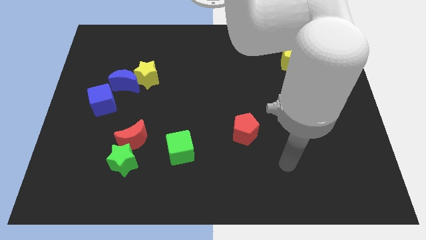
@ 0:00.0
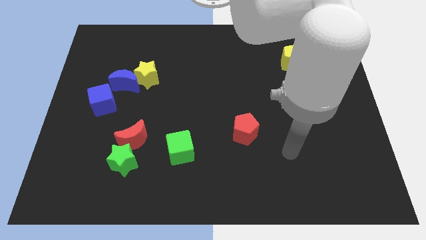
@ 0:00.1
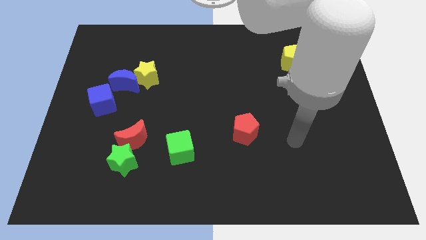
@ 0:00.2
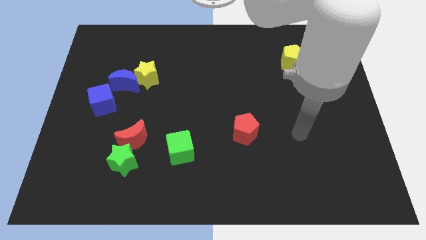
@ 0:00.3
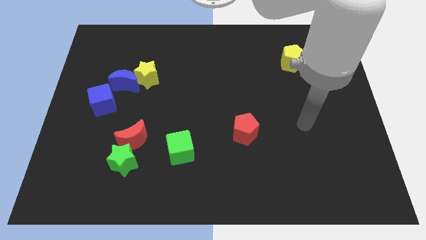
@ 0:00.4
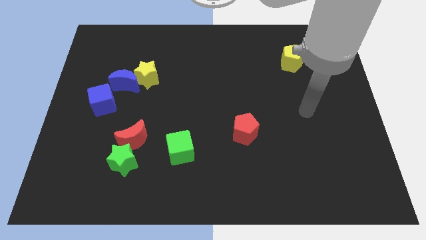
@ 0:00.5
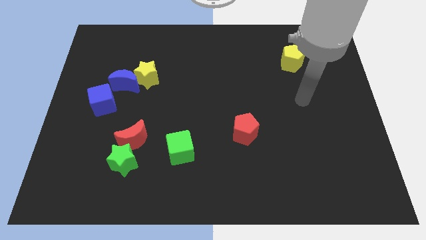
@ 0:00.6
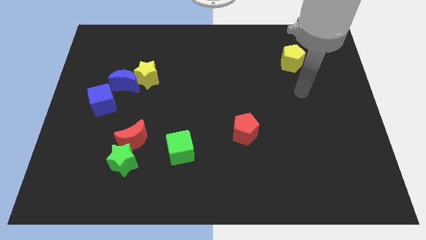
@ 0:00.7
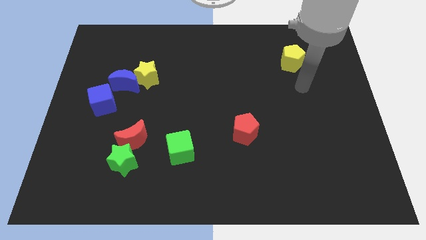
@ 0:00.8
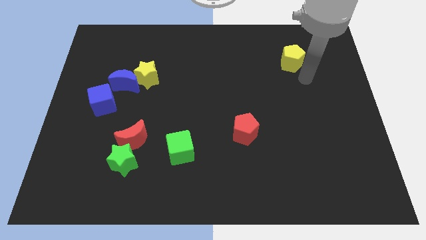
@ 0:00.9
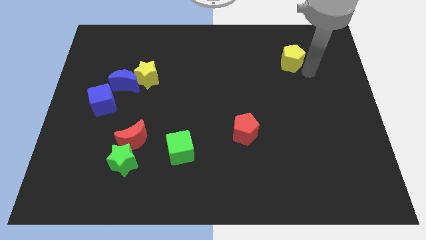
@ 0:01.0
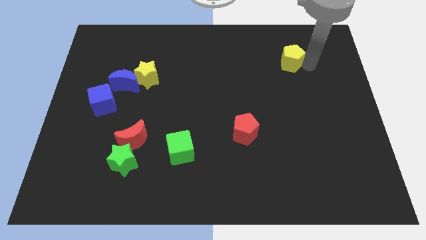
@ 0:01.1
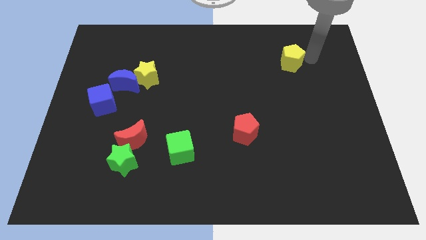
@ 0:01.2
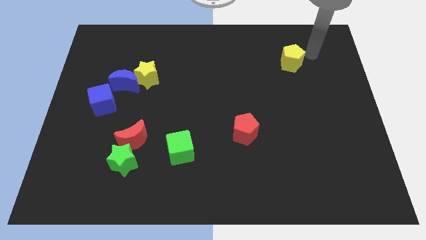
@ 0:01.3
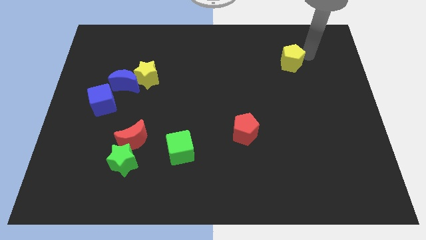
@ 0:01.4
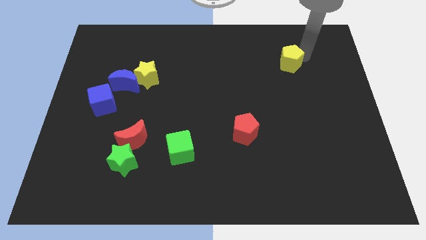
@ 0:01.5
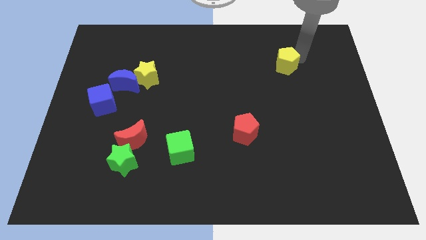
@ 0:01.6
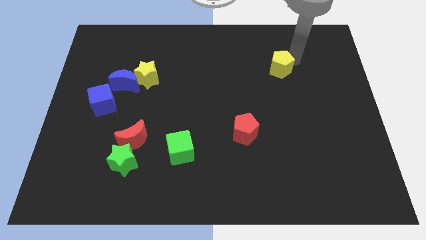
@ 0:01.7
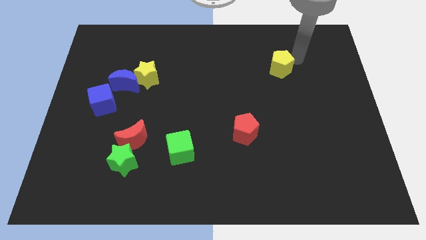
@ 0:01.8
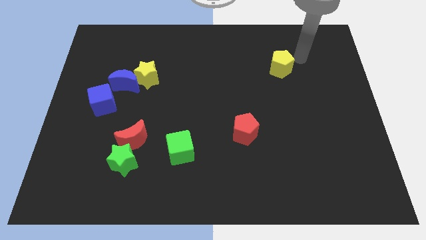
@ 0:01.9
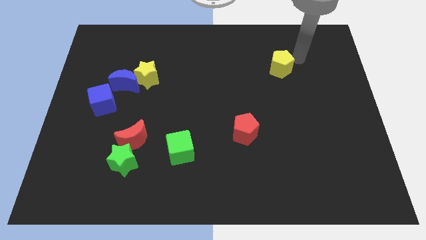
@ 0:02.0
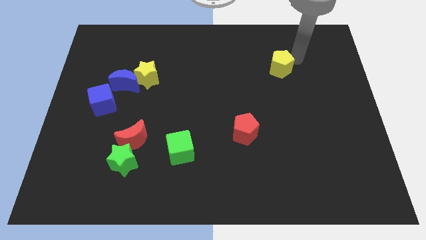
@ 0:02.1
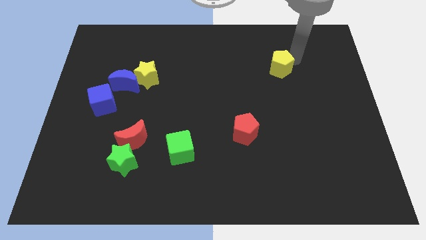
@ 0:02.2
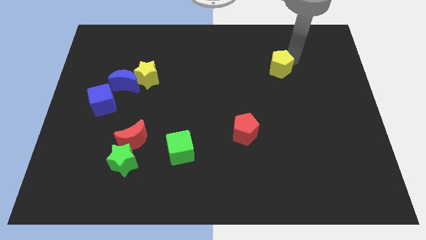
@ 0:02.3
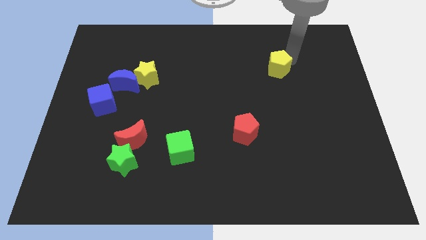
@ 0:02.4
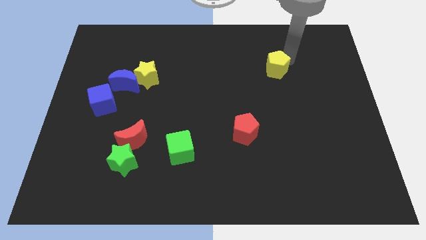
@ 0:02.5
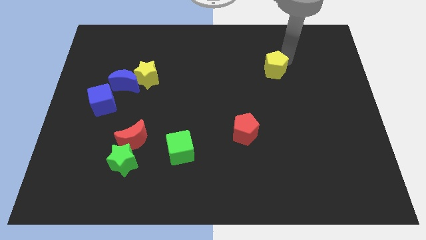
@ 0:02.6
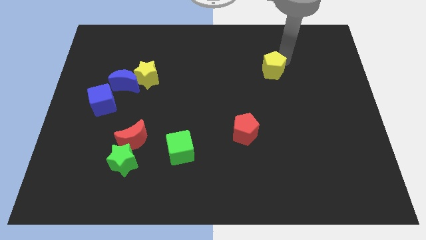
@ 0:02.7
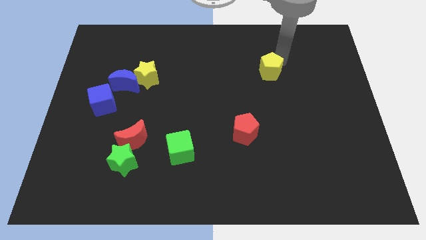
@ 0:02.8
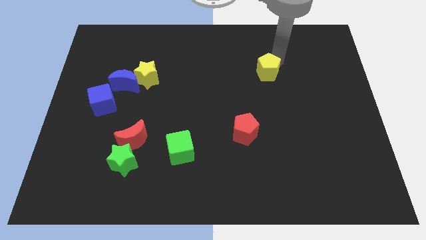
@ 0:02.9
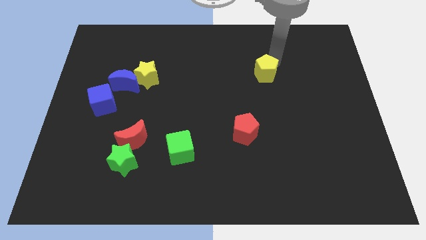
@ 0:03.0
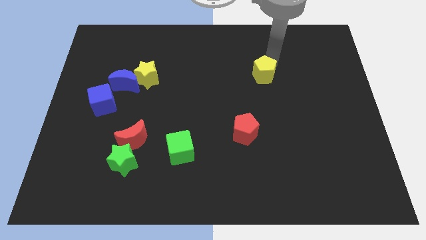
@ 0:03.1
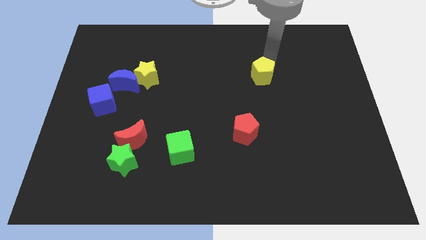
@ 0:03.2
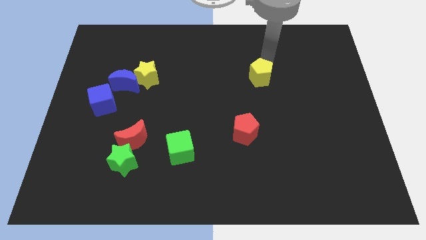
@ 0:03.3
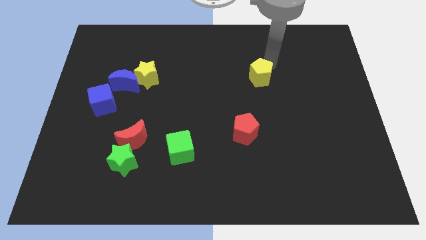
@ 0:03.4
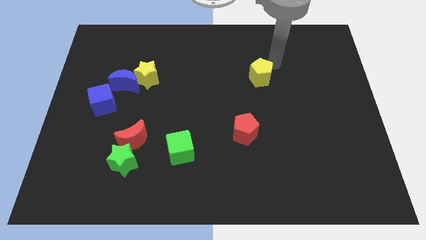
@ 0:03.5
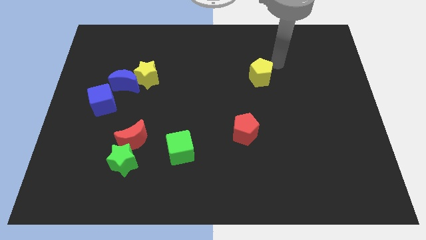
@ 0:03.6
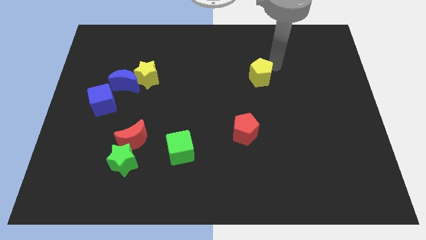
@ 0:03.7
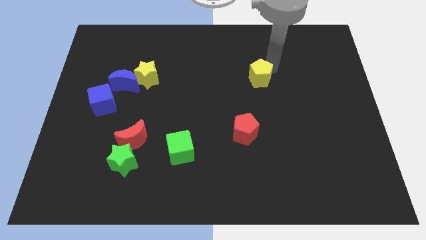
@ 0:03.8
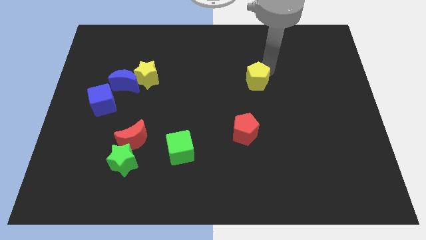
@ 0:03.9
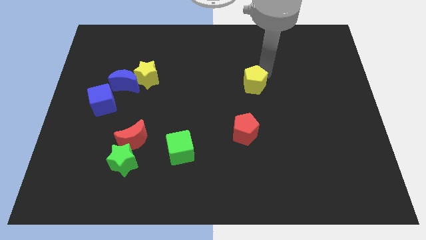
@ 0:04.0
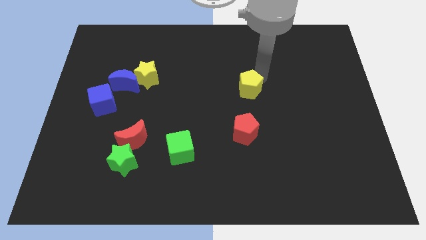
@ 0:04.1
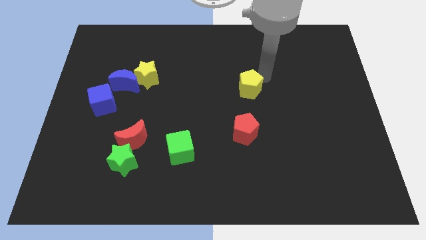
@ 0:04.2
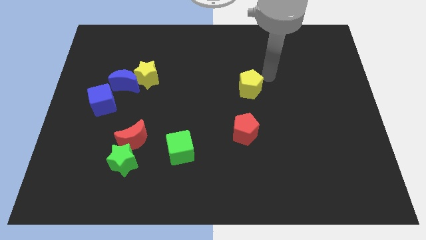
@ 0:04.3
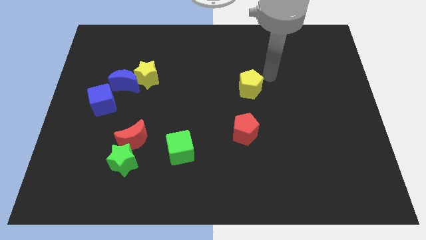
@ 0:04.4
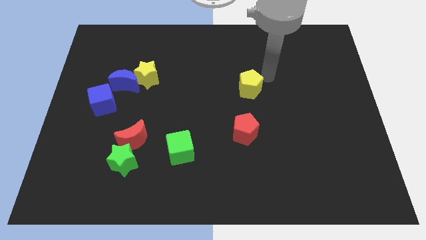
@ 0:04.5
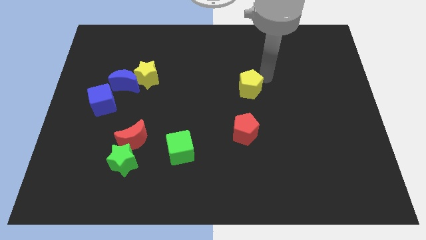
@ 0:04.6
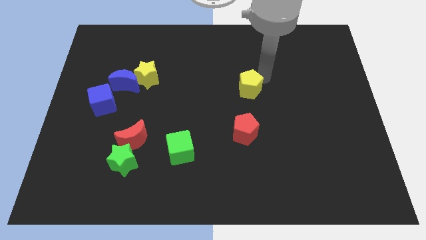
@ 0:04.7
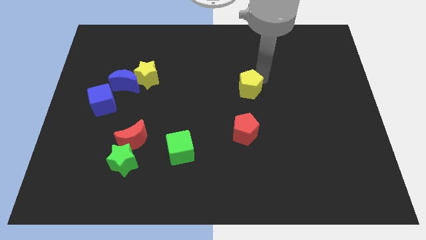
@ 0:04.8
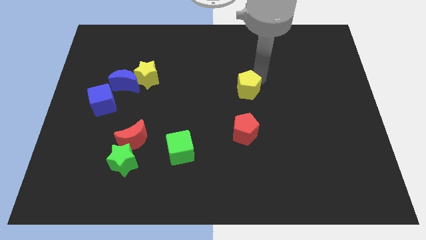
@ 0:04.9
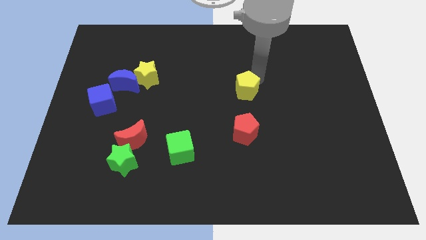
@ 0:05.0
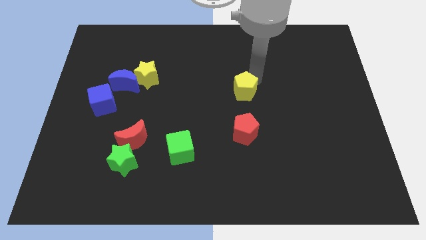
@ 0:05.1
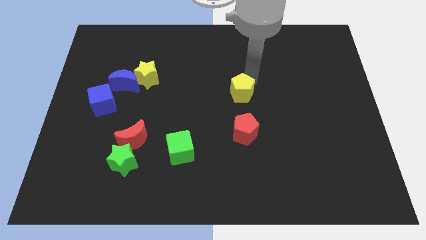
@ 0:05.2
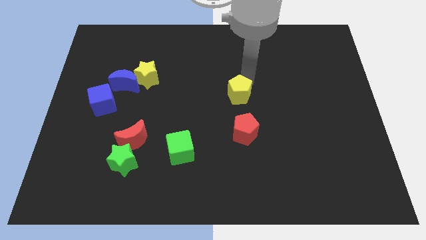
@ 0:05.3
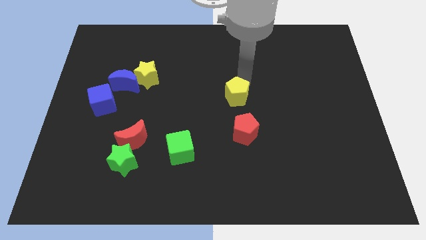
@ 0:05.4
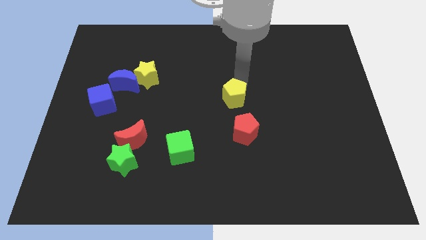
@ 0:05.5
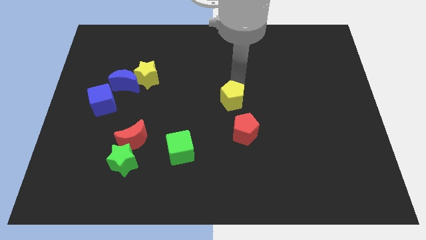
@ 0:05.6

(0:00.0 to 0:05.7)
push the yellow pentagon down and to the left

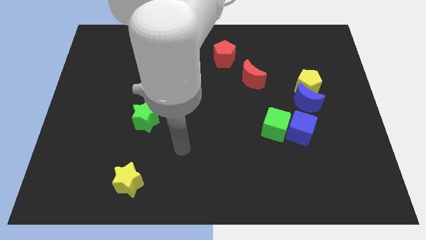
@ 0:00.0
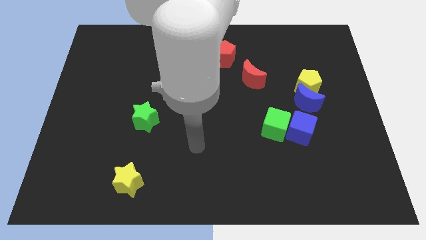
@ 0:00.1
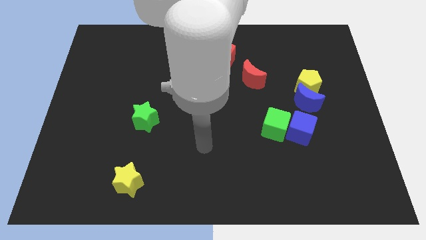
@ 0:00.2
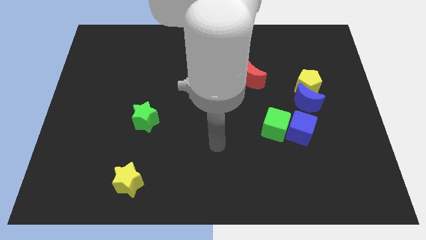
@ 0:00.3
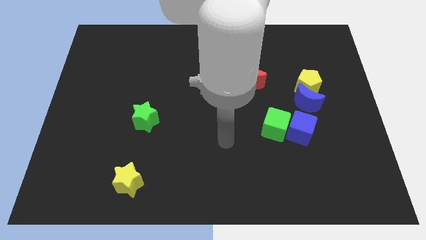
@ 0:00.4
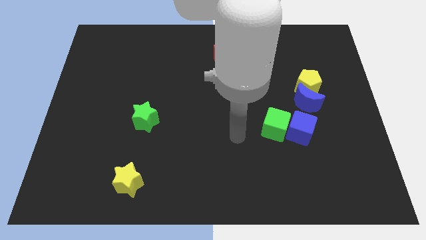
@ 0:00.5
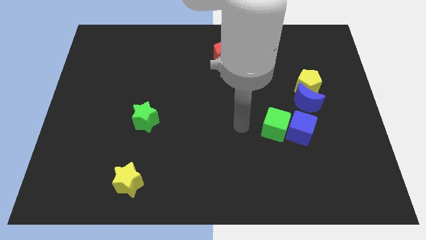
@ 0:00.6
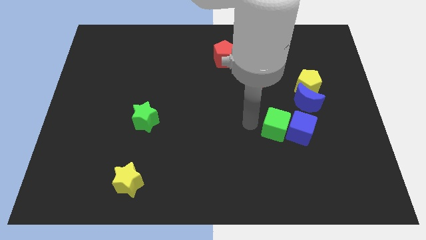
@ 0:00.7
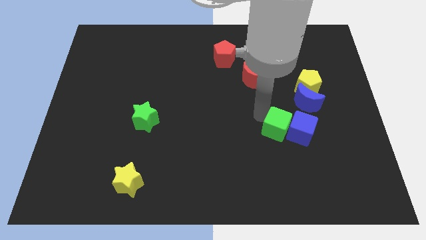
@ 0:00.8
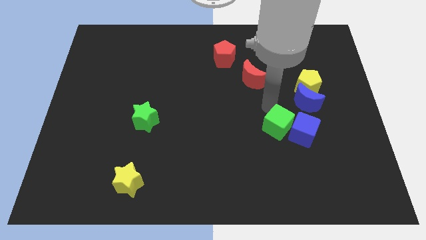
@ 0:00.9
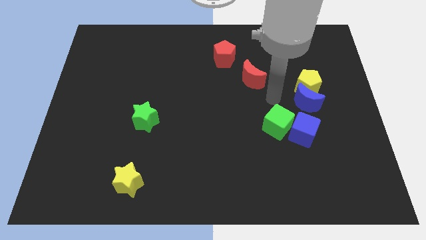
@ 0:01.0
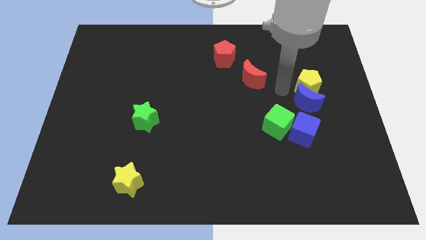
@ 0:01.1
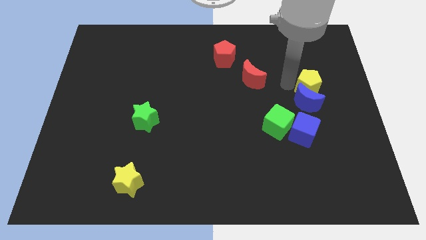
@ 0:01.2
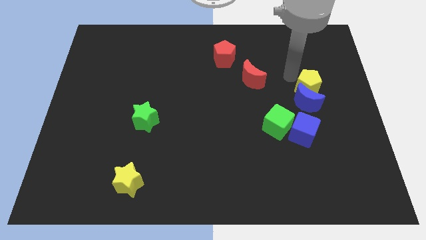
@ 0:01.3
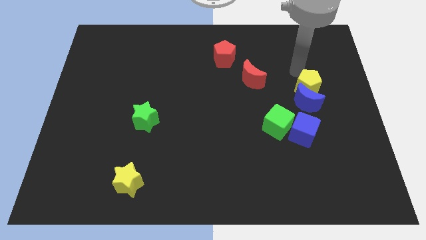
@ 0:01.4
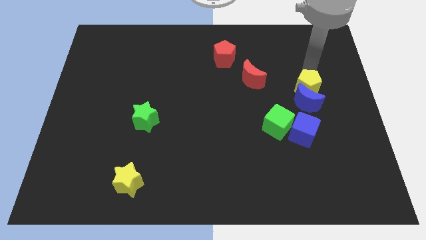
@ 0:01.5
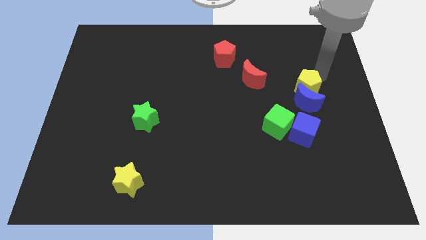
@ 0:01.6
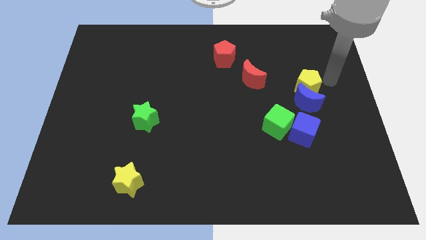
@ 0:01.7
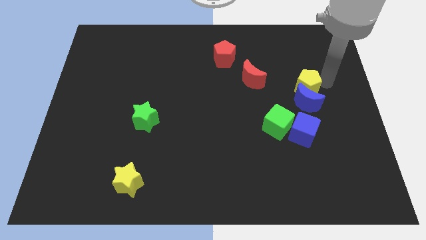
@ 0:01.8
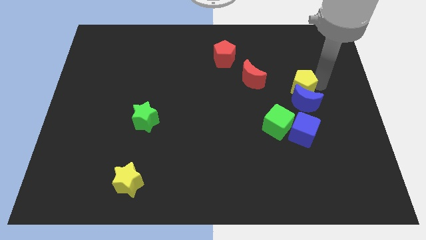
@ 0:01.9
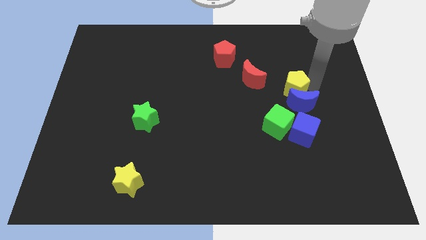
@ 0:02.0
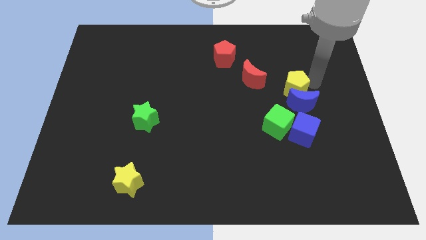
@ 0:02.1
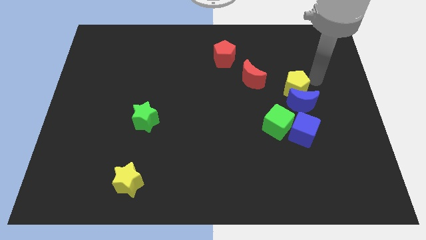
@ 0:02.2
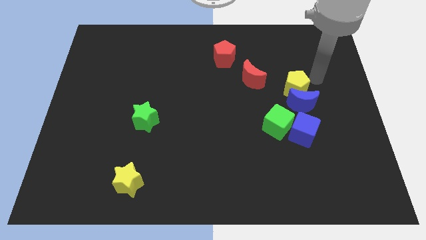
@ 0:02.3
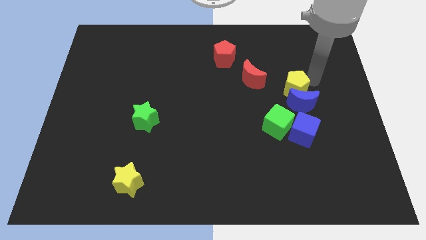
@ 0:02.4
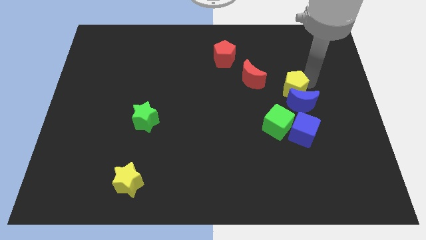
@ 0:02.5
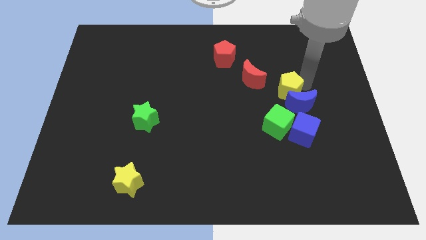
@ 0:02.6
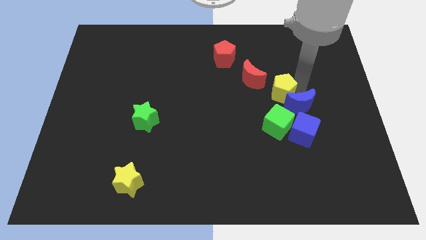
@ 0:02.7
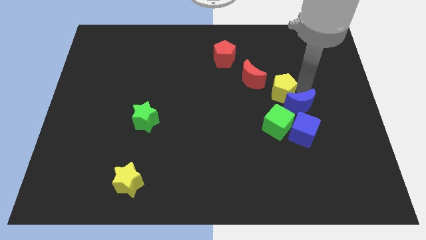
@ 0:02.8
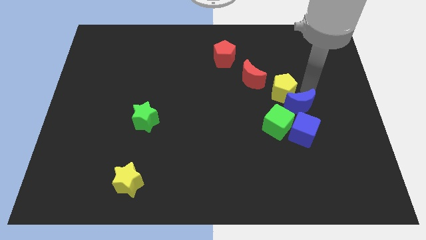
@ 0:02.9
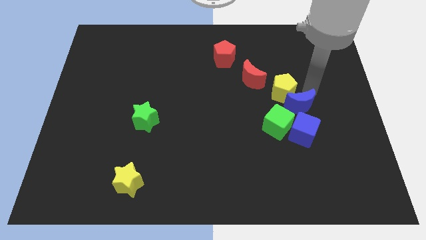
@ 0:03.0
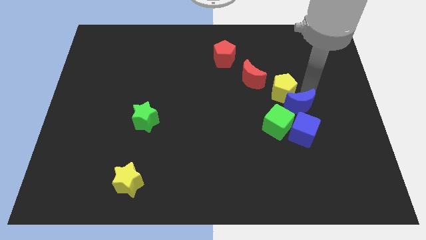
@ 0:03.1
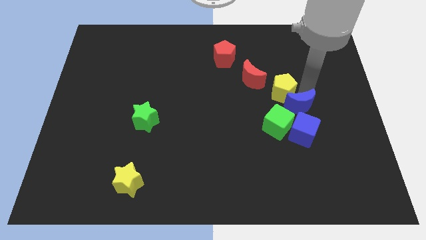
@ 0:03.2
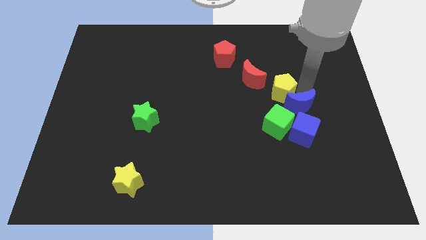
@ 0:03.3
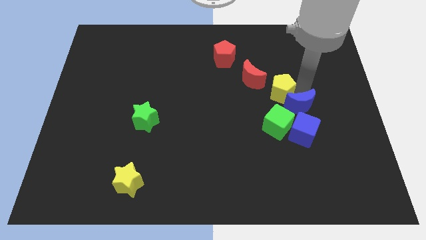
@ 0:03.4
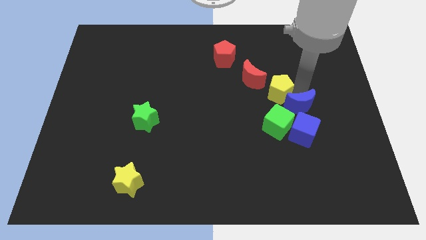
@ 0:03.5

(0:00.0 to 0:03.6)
slightly slide the yellow pentagon left
